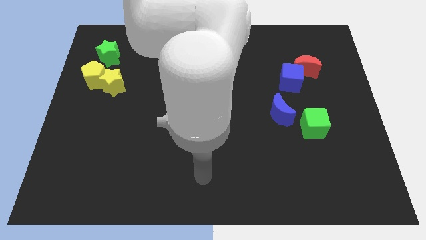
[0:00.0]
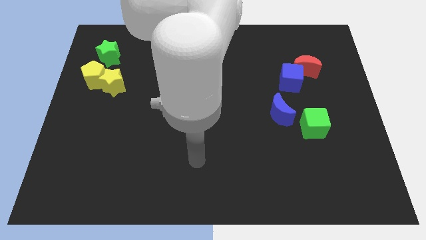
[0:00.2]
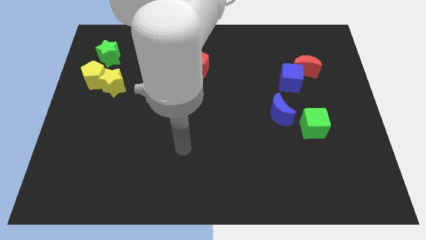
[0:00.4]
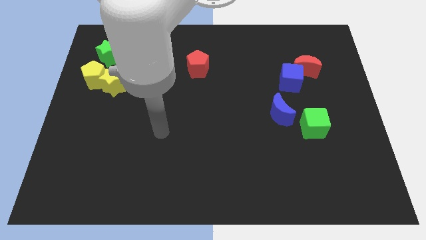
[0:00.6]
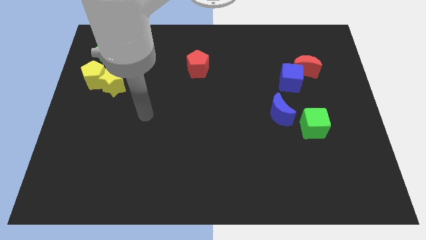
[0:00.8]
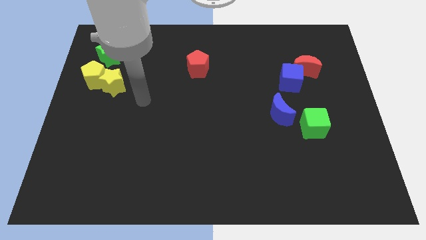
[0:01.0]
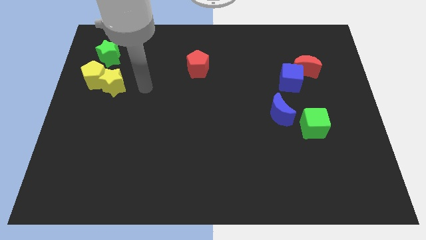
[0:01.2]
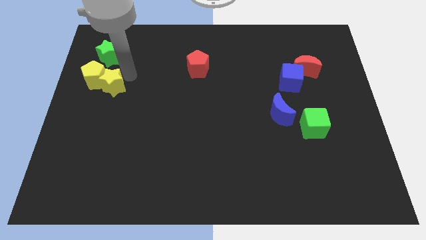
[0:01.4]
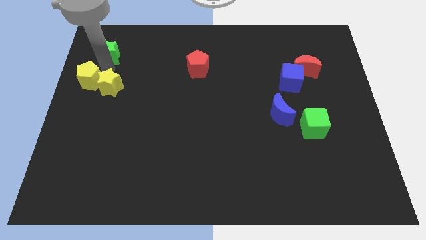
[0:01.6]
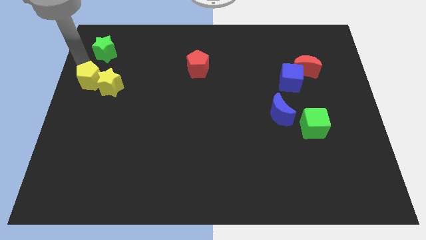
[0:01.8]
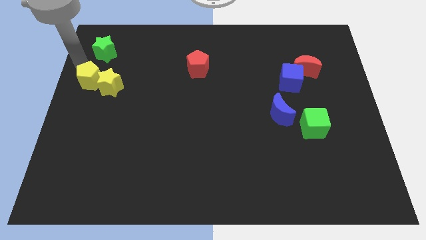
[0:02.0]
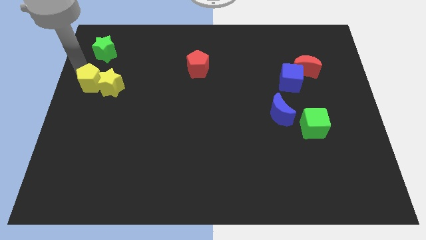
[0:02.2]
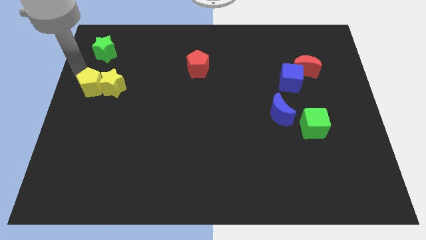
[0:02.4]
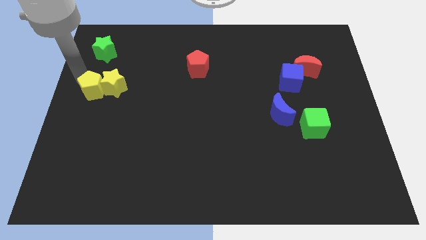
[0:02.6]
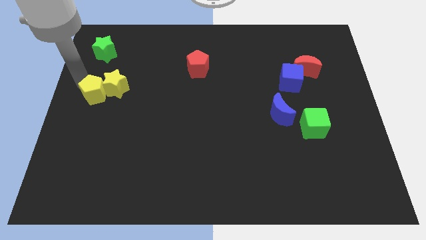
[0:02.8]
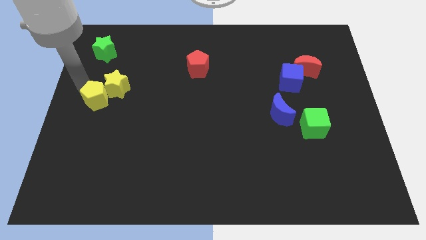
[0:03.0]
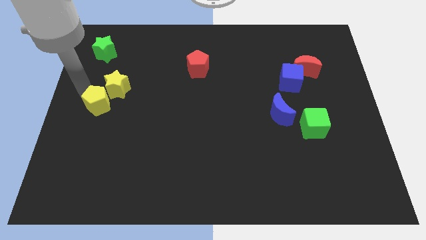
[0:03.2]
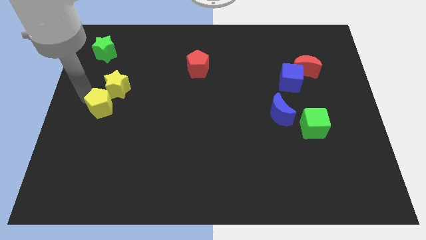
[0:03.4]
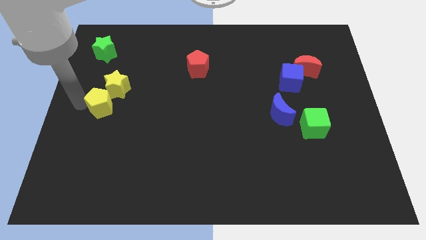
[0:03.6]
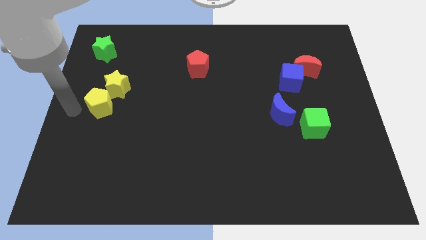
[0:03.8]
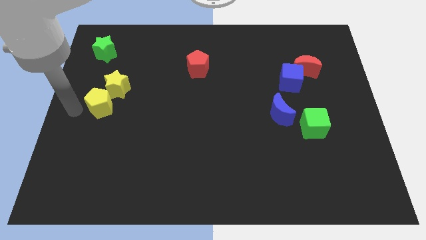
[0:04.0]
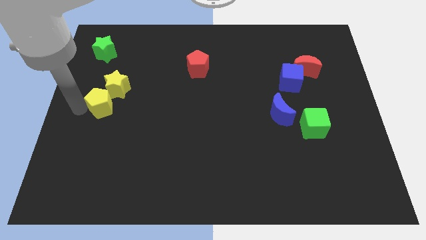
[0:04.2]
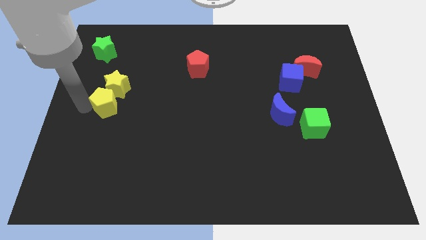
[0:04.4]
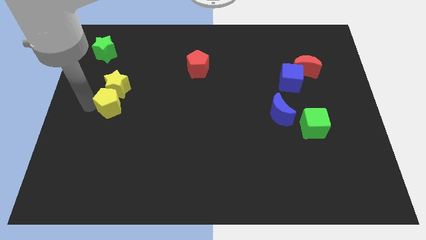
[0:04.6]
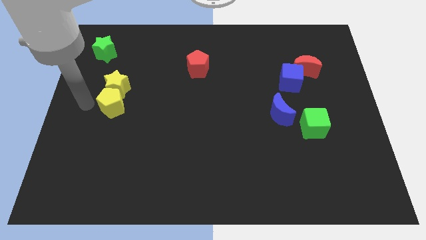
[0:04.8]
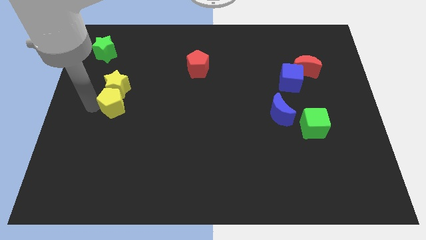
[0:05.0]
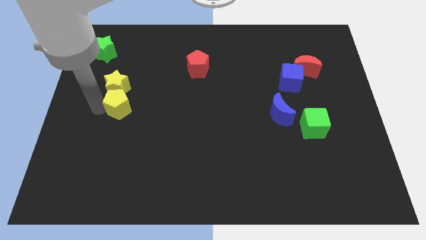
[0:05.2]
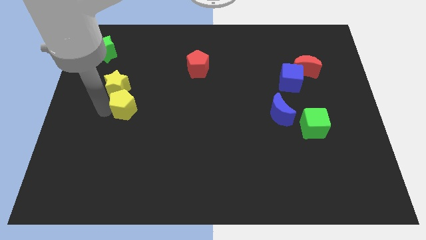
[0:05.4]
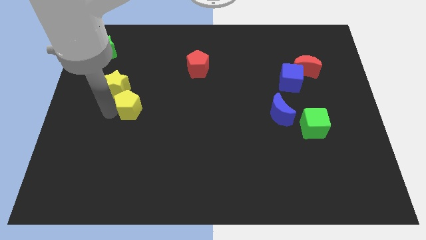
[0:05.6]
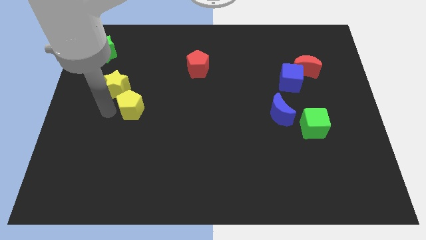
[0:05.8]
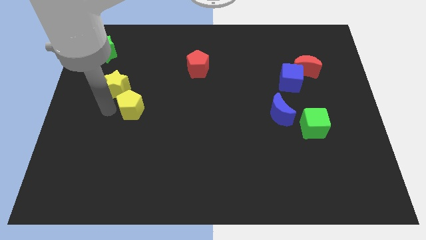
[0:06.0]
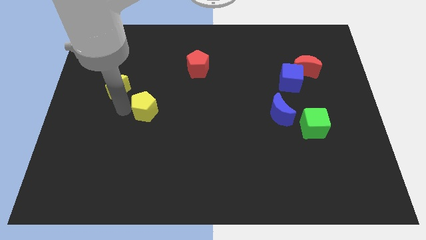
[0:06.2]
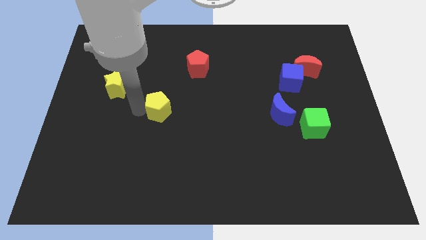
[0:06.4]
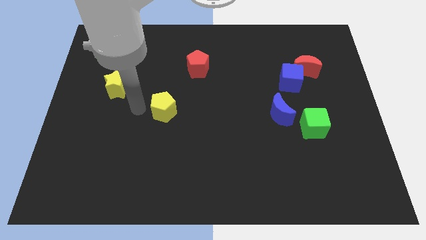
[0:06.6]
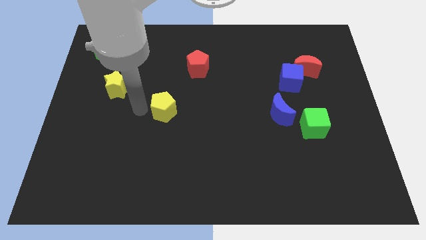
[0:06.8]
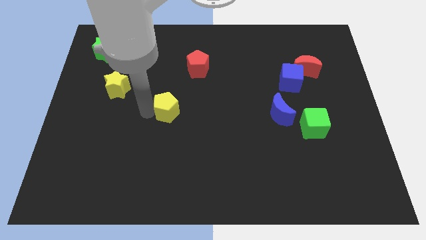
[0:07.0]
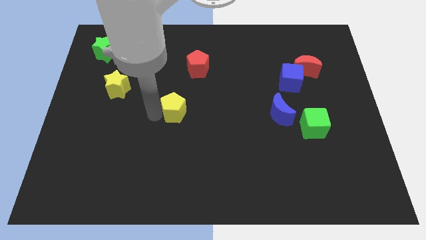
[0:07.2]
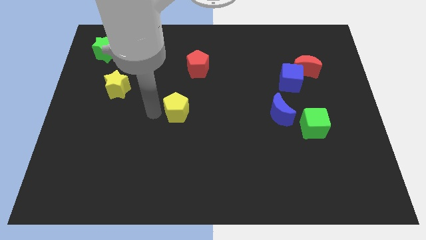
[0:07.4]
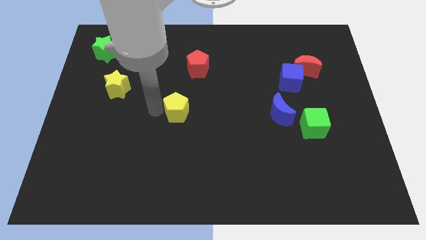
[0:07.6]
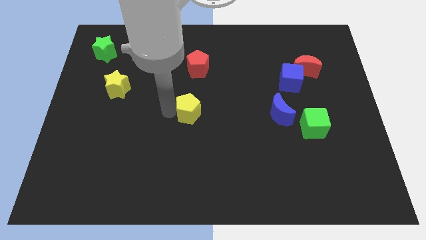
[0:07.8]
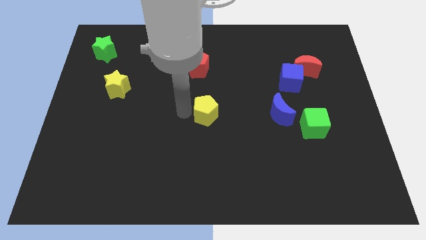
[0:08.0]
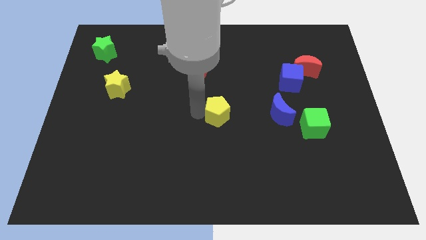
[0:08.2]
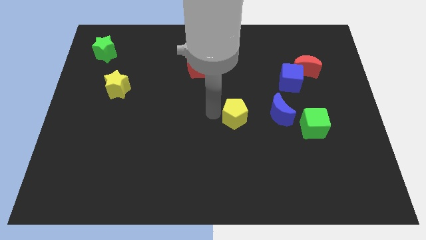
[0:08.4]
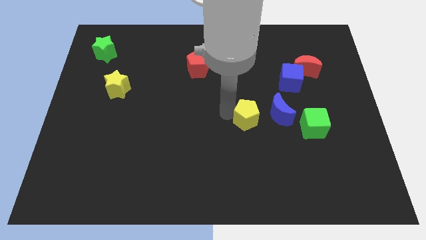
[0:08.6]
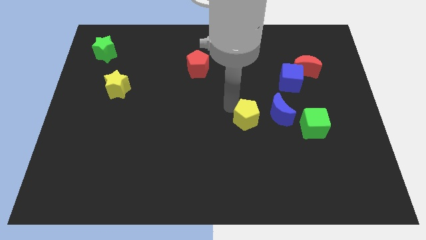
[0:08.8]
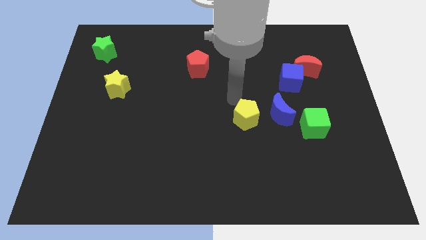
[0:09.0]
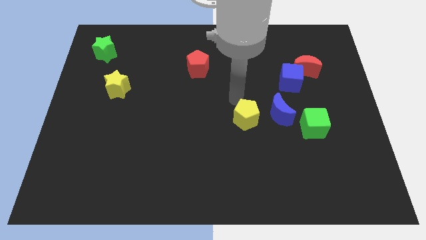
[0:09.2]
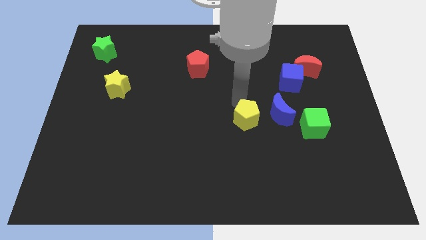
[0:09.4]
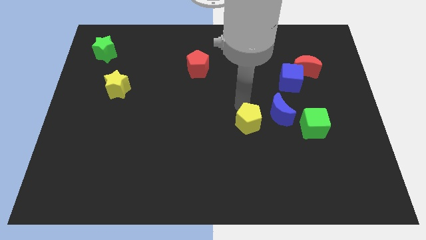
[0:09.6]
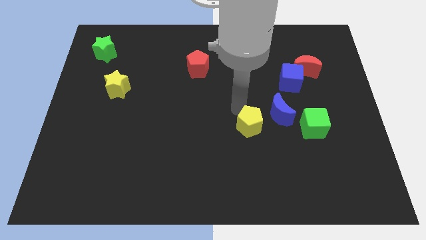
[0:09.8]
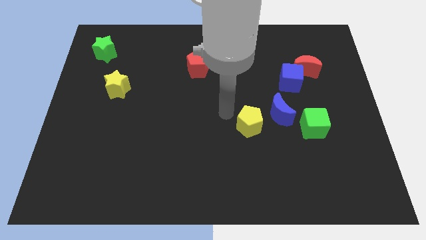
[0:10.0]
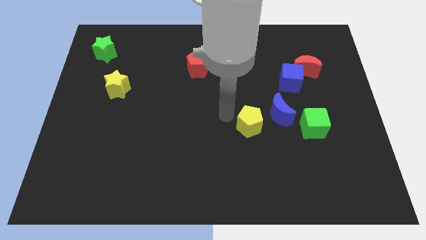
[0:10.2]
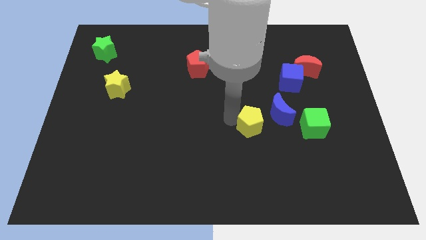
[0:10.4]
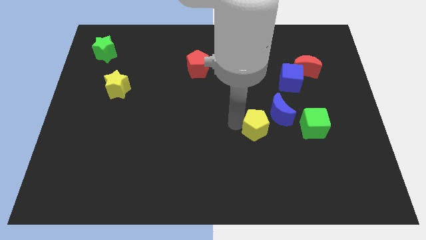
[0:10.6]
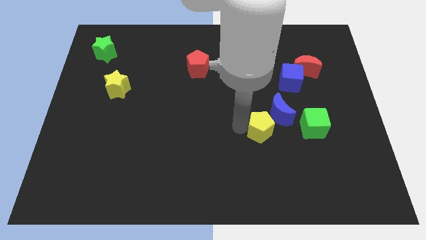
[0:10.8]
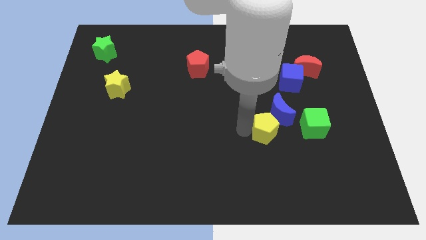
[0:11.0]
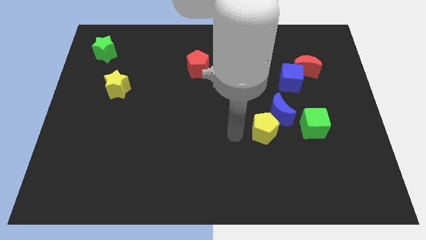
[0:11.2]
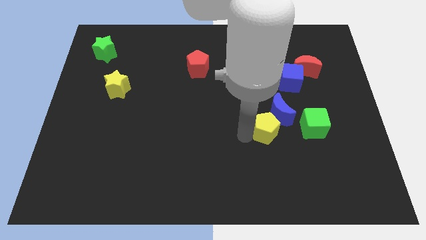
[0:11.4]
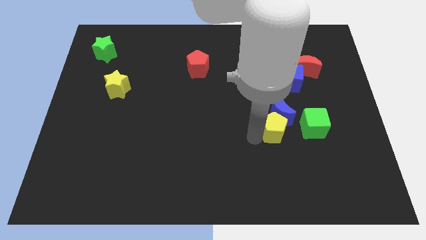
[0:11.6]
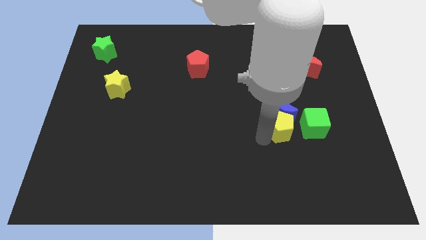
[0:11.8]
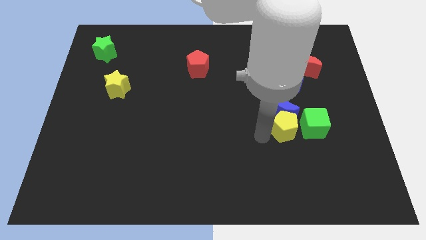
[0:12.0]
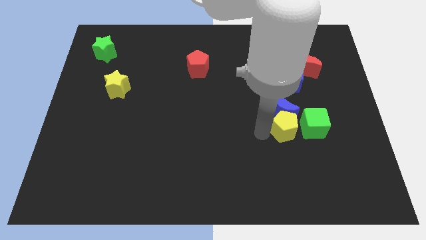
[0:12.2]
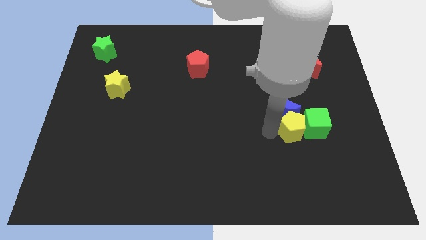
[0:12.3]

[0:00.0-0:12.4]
put the yellow pentagon next to the green cube

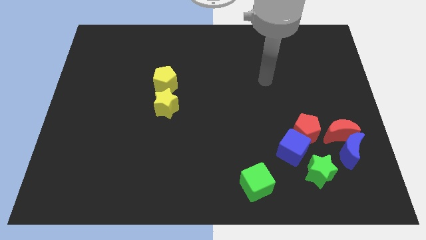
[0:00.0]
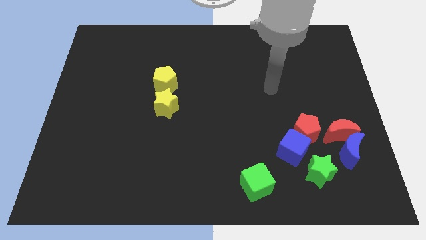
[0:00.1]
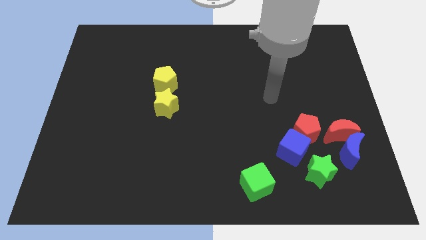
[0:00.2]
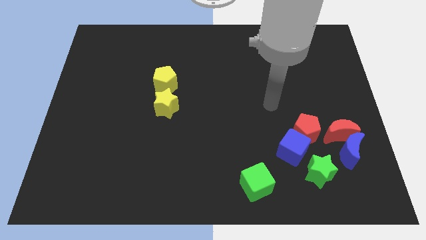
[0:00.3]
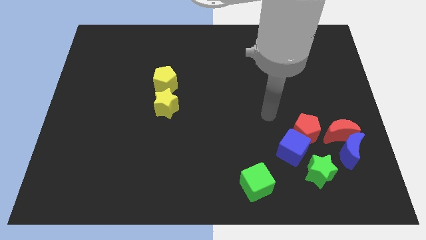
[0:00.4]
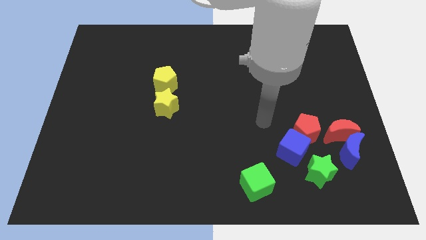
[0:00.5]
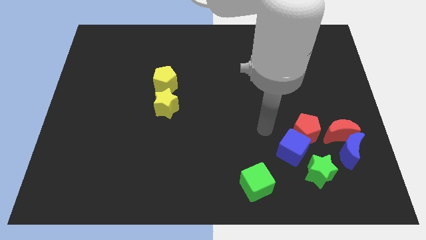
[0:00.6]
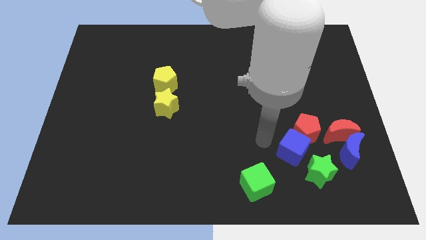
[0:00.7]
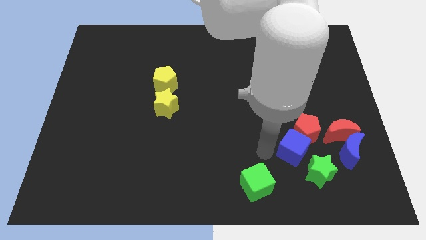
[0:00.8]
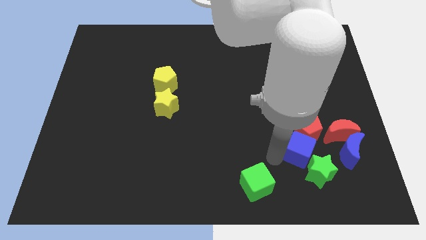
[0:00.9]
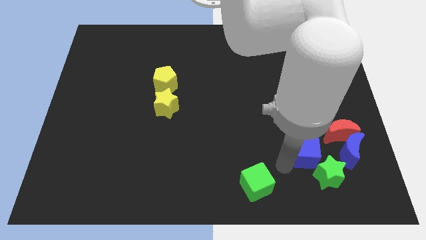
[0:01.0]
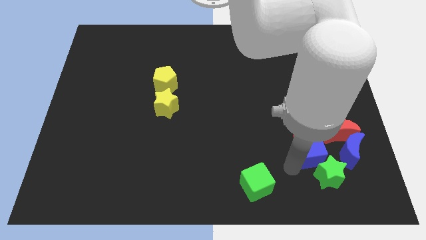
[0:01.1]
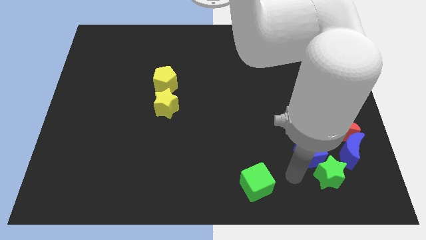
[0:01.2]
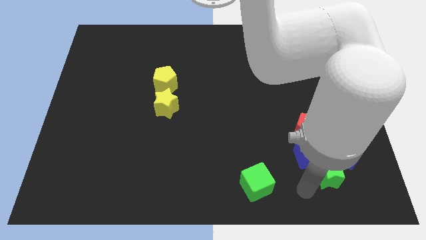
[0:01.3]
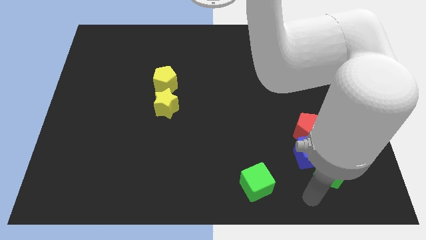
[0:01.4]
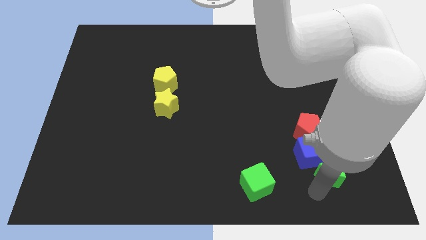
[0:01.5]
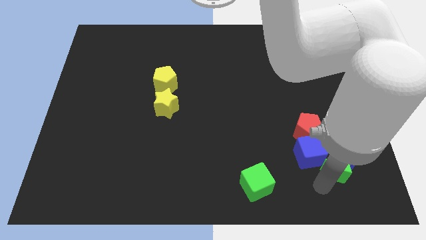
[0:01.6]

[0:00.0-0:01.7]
slide the green star next to the blue moon
